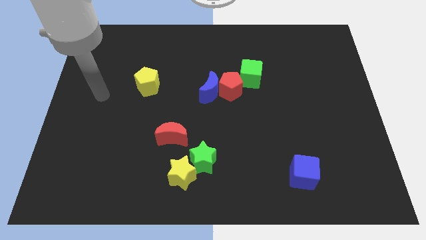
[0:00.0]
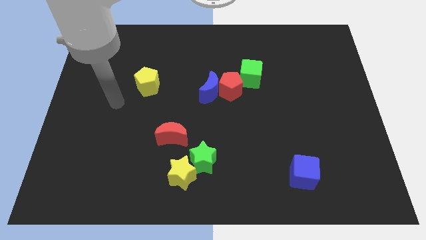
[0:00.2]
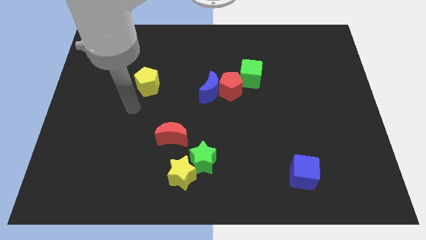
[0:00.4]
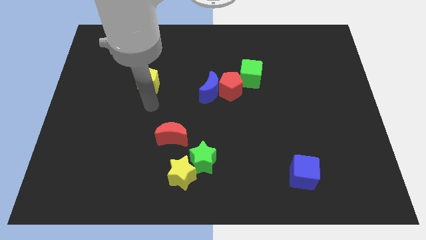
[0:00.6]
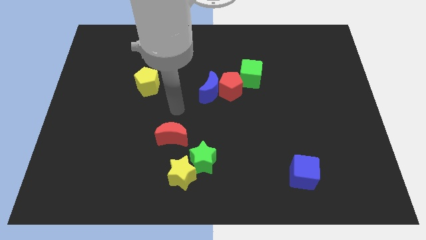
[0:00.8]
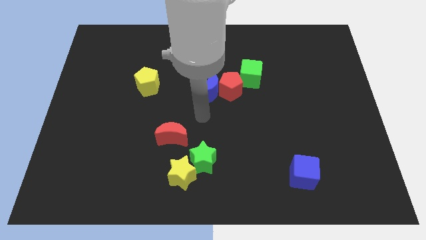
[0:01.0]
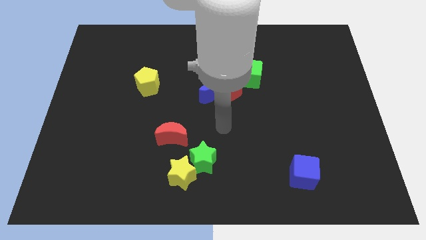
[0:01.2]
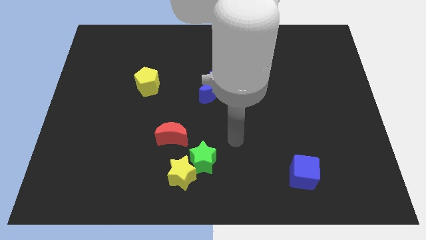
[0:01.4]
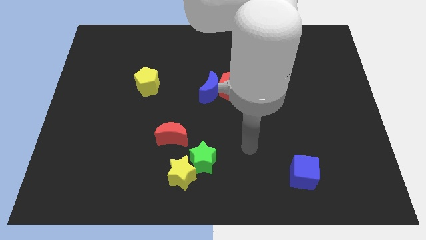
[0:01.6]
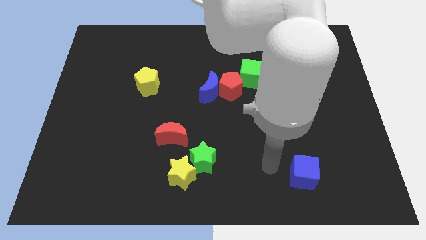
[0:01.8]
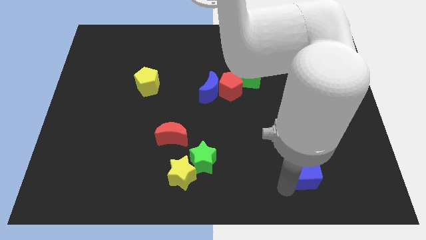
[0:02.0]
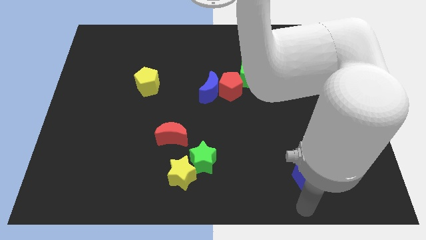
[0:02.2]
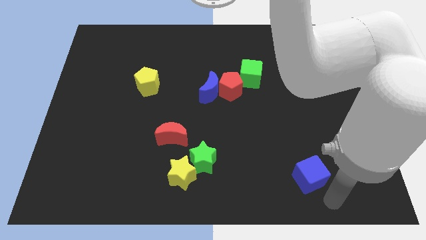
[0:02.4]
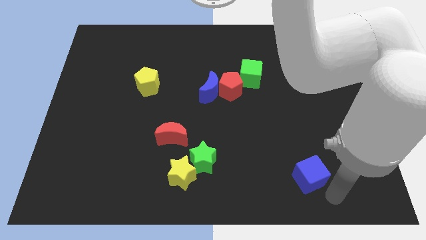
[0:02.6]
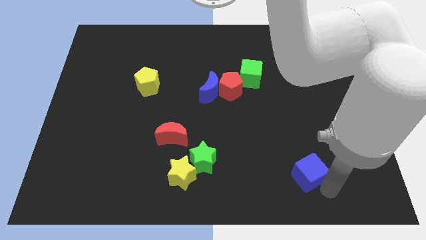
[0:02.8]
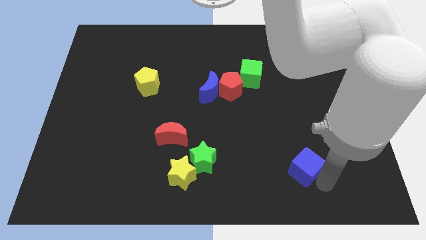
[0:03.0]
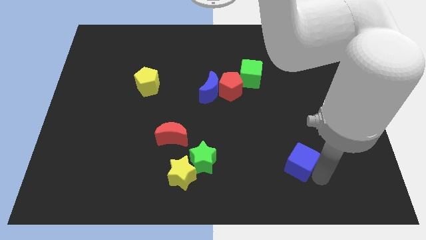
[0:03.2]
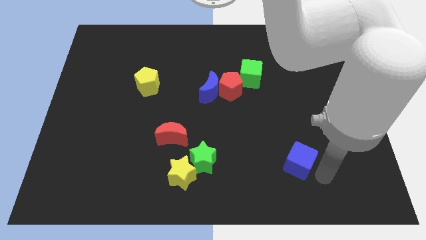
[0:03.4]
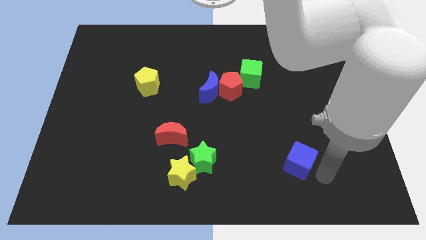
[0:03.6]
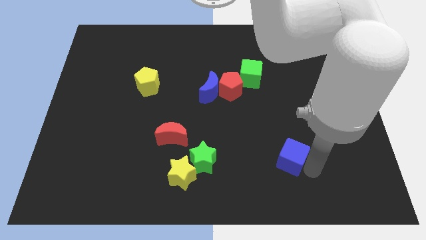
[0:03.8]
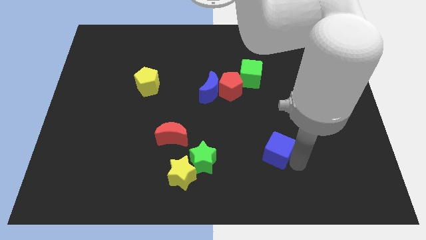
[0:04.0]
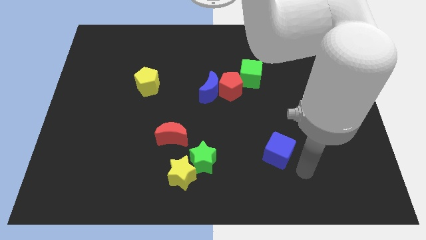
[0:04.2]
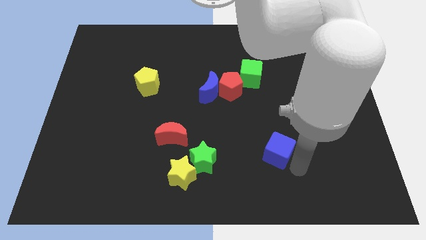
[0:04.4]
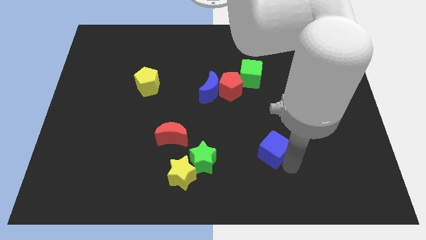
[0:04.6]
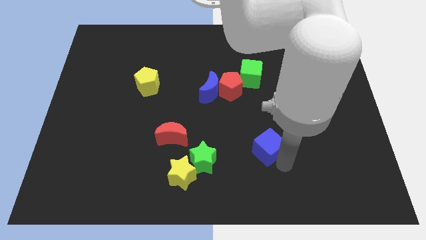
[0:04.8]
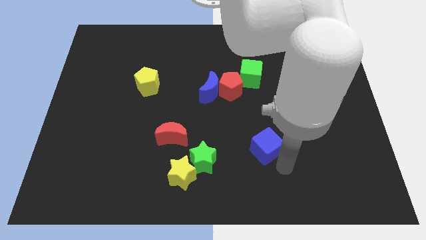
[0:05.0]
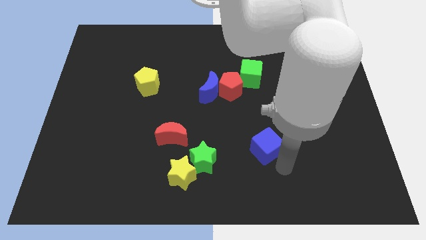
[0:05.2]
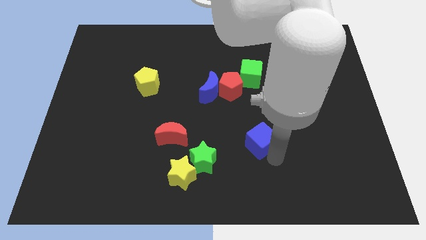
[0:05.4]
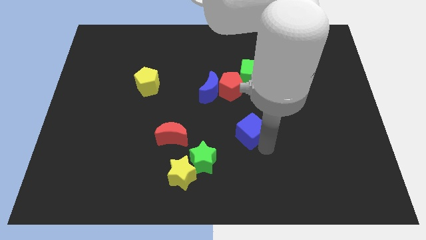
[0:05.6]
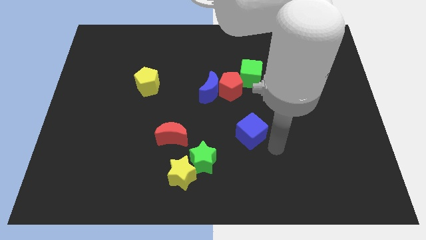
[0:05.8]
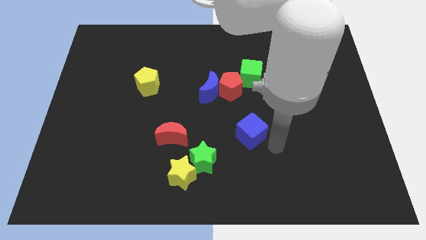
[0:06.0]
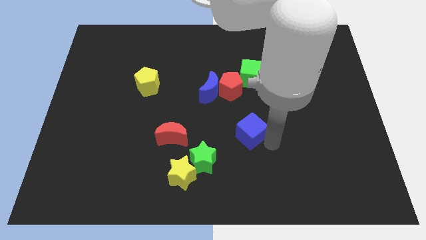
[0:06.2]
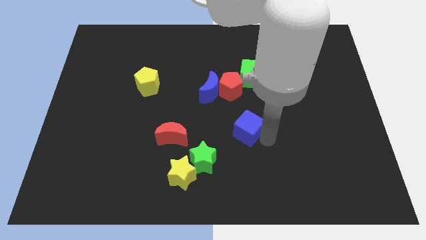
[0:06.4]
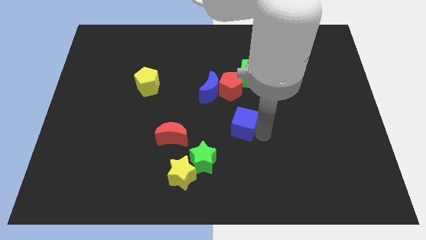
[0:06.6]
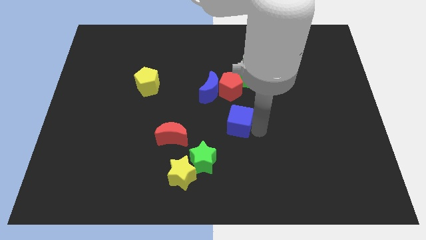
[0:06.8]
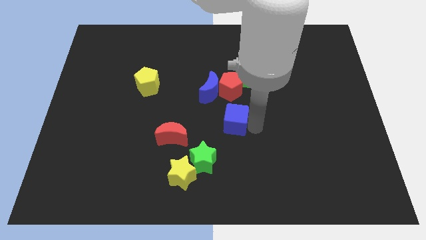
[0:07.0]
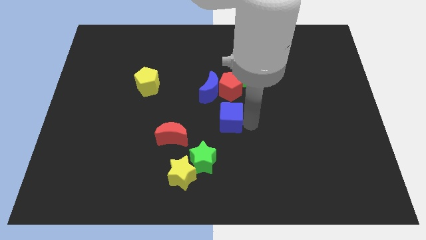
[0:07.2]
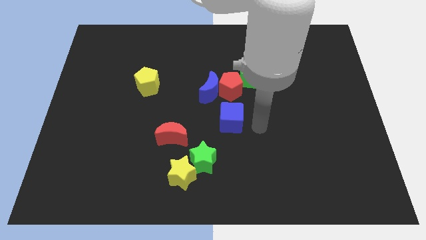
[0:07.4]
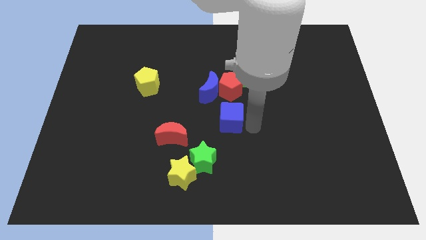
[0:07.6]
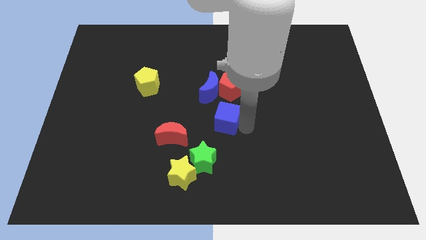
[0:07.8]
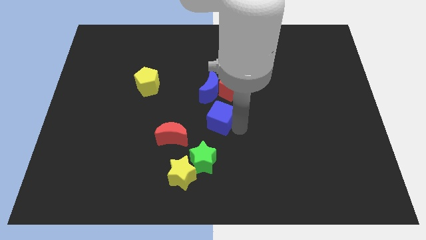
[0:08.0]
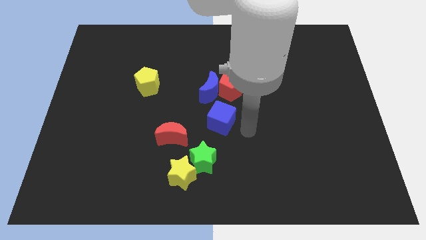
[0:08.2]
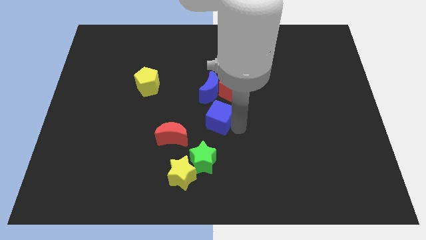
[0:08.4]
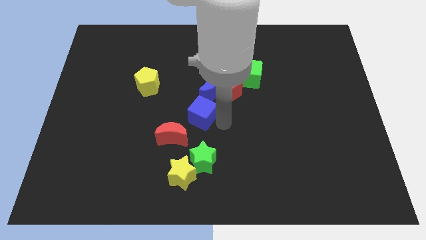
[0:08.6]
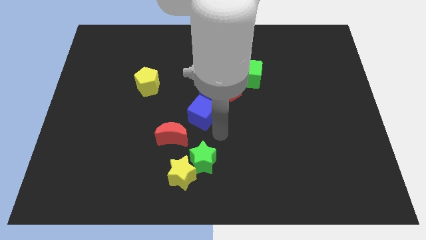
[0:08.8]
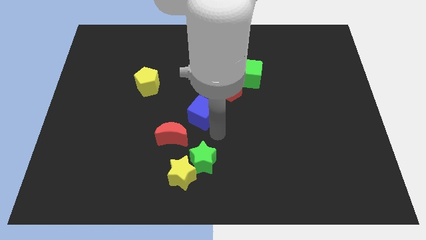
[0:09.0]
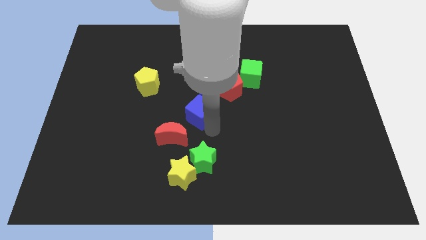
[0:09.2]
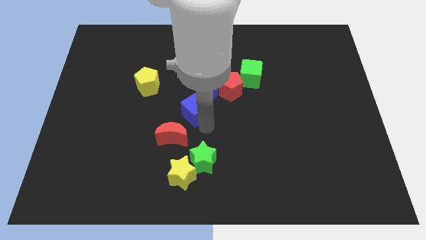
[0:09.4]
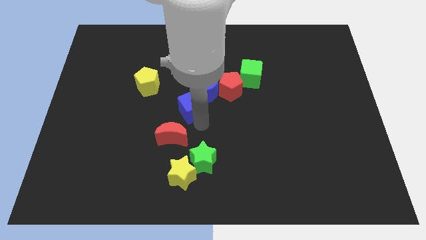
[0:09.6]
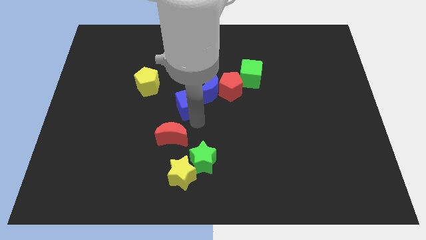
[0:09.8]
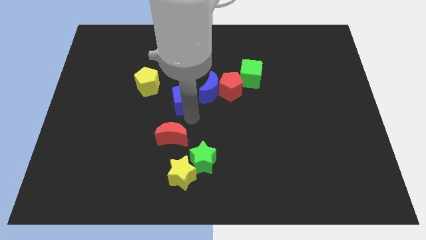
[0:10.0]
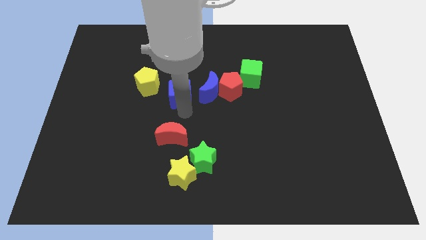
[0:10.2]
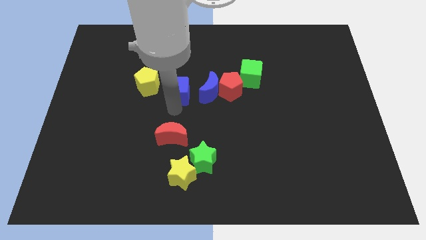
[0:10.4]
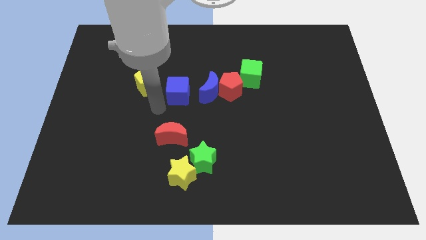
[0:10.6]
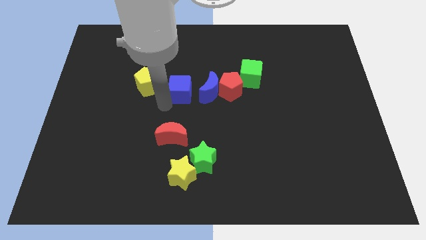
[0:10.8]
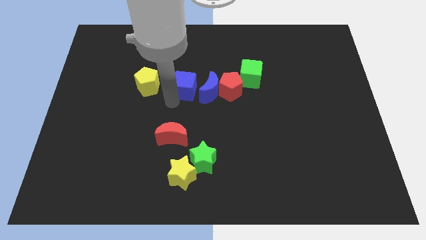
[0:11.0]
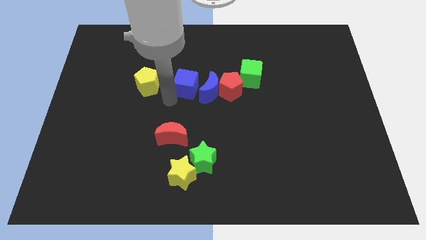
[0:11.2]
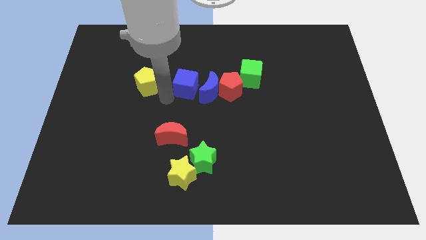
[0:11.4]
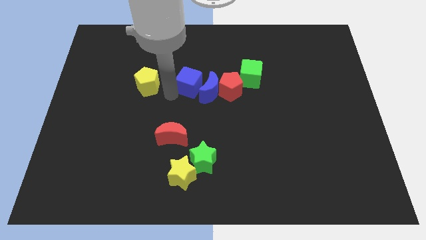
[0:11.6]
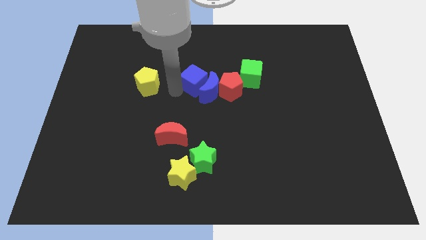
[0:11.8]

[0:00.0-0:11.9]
put the blue cube diagonally up and to the left of the red pentagon

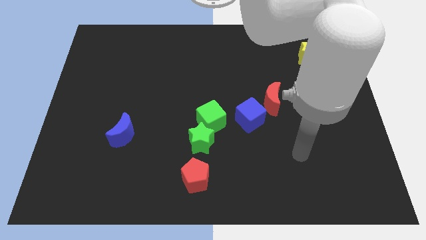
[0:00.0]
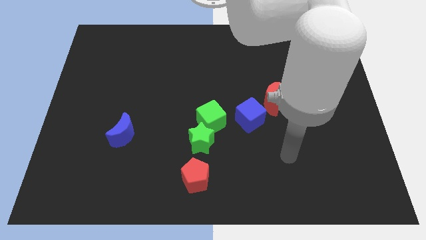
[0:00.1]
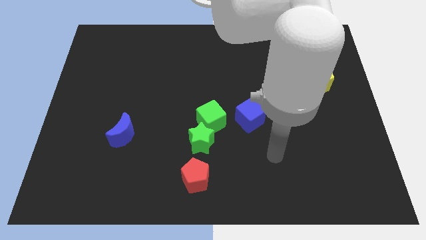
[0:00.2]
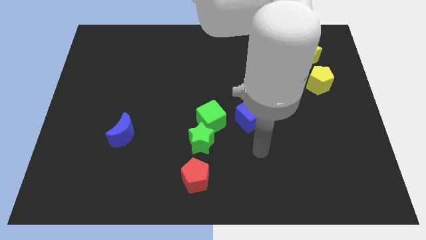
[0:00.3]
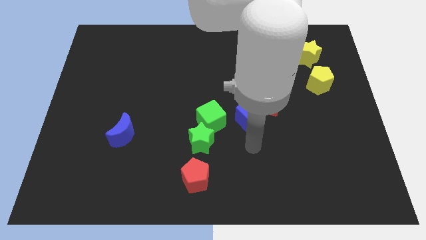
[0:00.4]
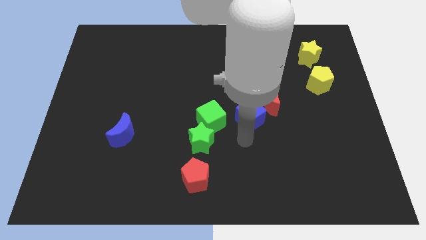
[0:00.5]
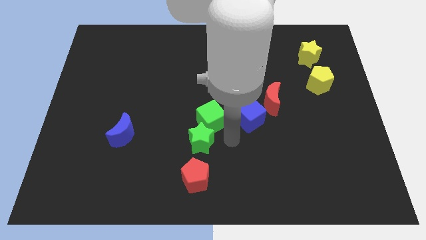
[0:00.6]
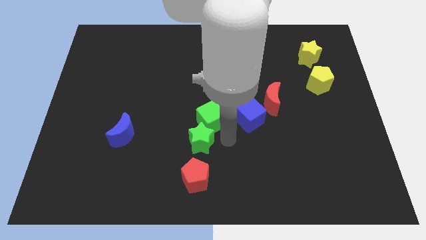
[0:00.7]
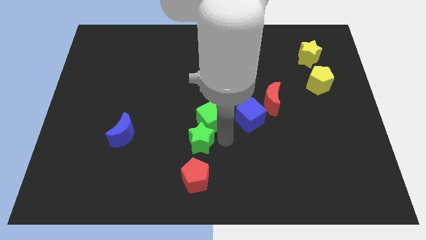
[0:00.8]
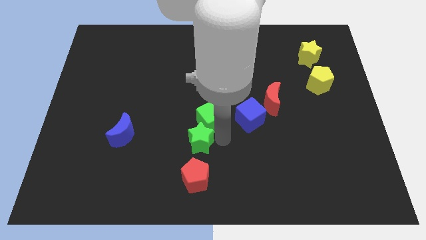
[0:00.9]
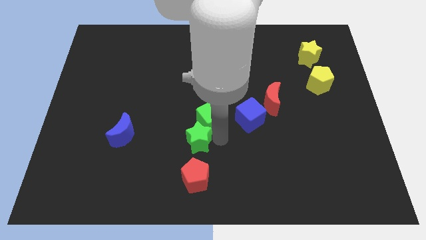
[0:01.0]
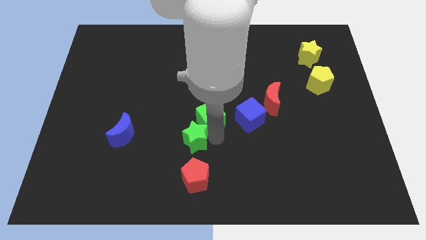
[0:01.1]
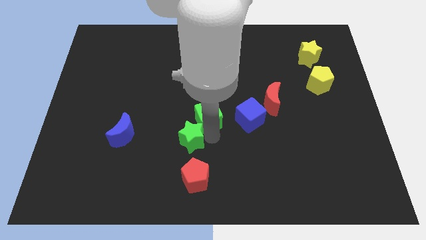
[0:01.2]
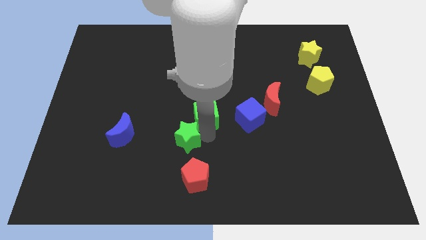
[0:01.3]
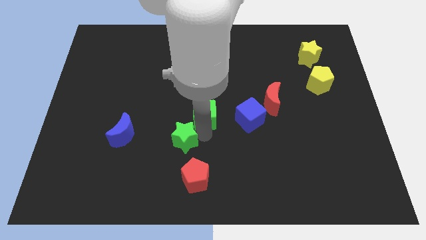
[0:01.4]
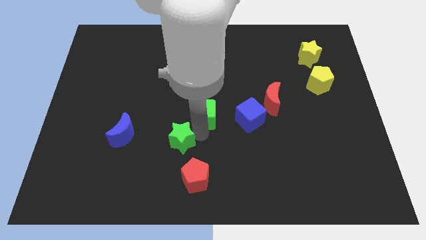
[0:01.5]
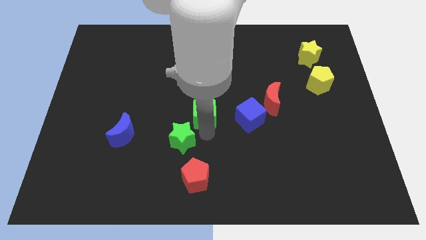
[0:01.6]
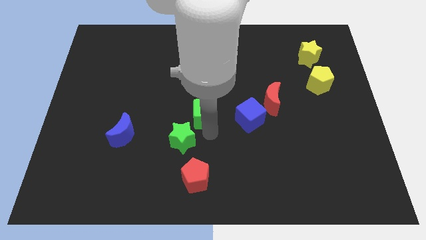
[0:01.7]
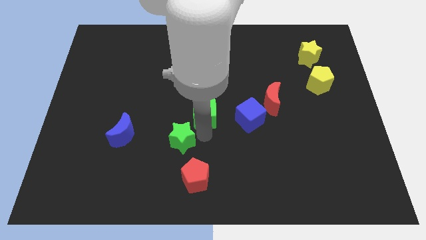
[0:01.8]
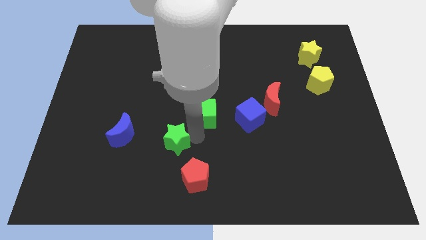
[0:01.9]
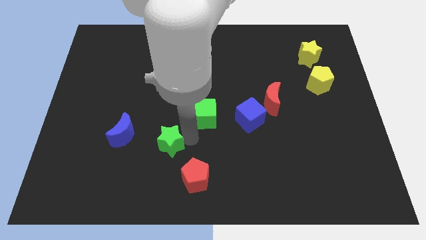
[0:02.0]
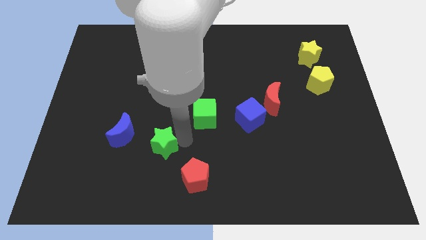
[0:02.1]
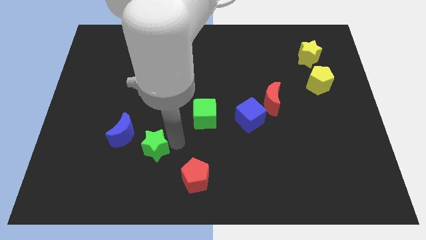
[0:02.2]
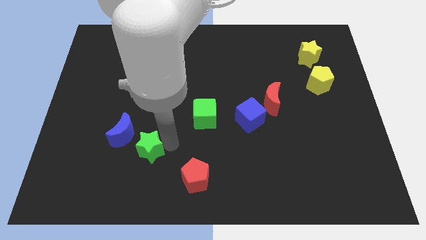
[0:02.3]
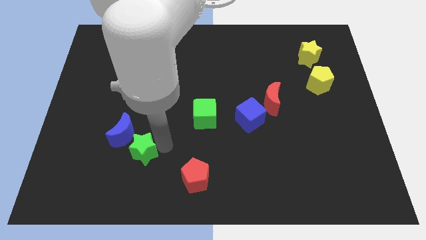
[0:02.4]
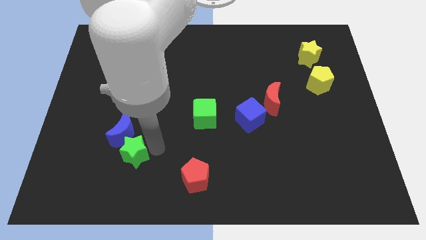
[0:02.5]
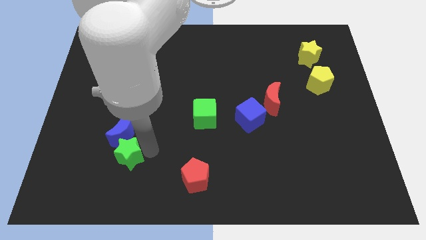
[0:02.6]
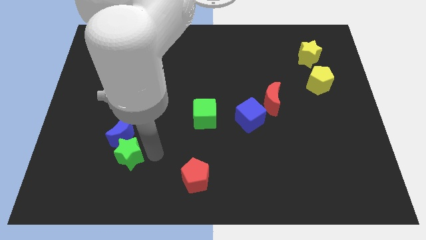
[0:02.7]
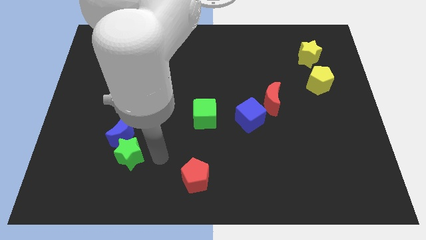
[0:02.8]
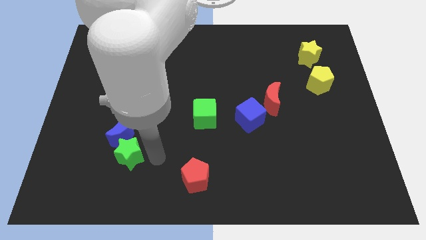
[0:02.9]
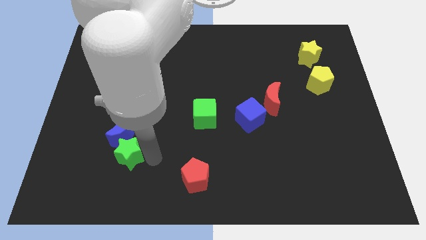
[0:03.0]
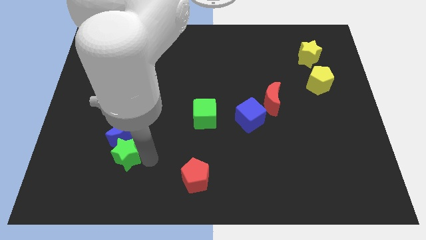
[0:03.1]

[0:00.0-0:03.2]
slide the green star diagonally down and to the left of the blue moon
